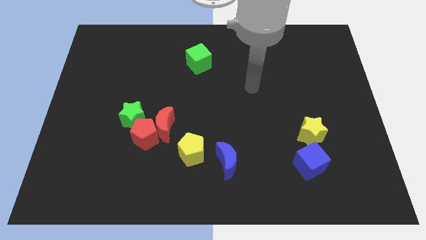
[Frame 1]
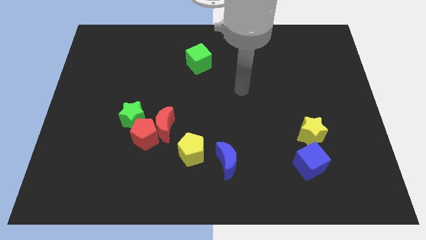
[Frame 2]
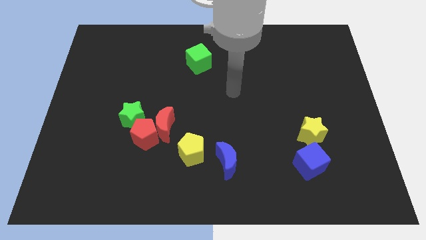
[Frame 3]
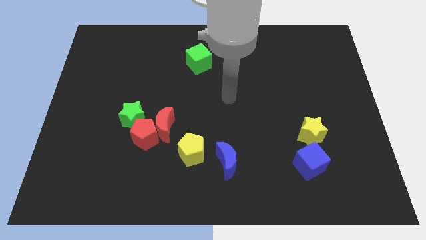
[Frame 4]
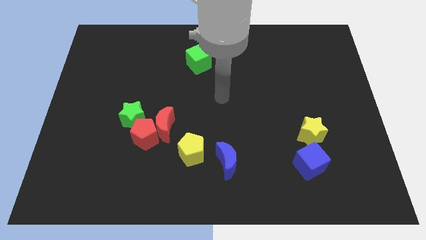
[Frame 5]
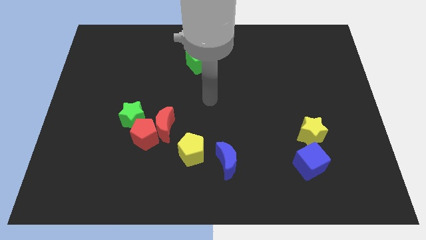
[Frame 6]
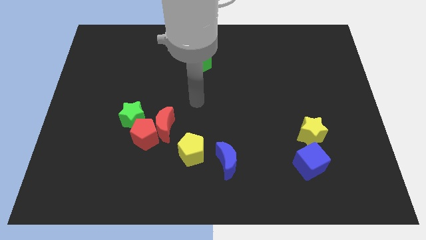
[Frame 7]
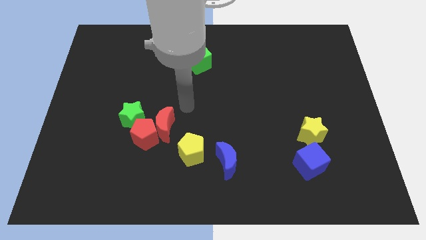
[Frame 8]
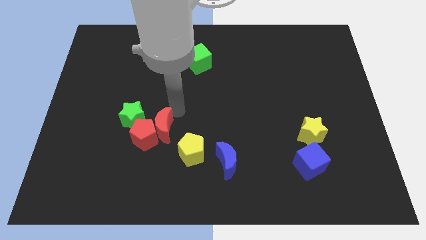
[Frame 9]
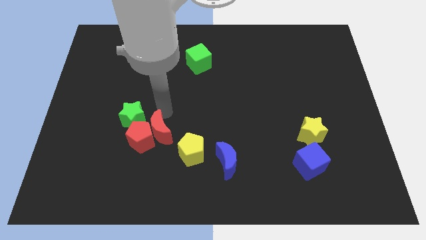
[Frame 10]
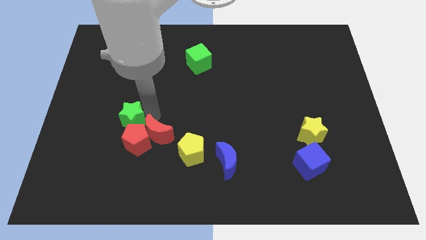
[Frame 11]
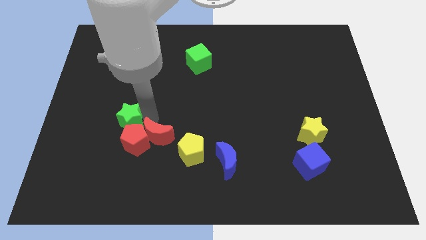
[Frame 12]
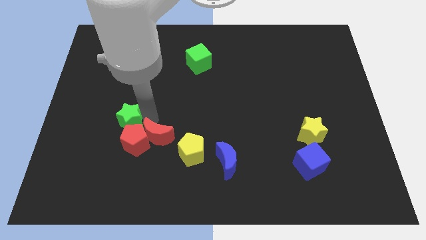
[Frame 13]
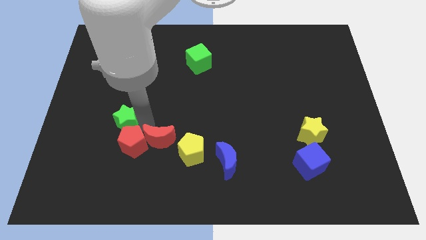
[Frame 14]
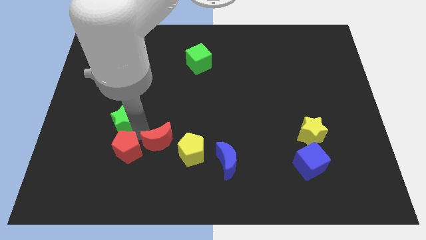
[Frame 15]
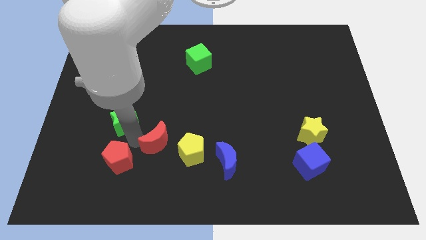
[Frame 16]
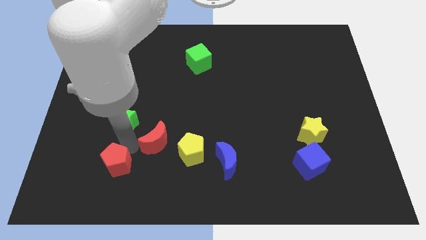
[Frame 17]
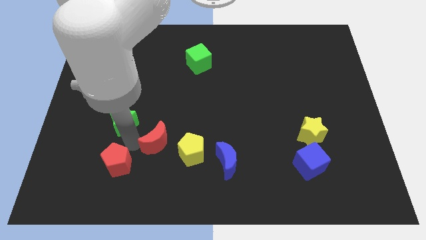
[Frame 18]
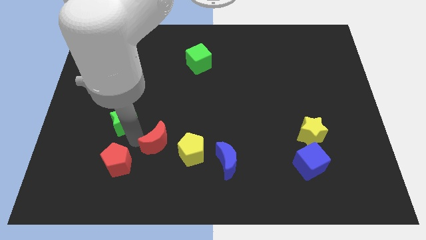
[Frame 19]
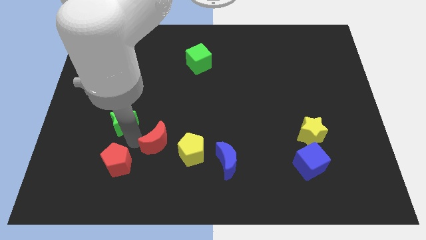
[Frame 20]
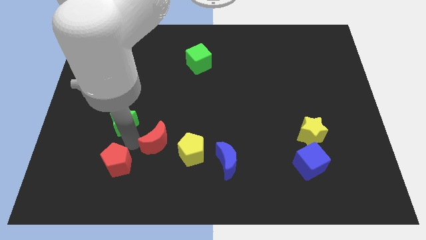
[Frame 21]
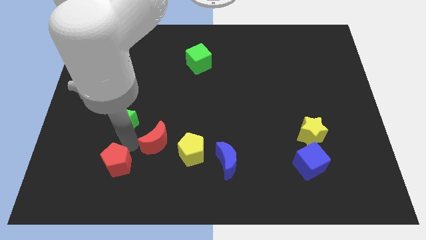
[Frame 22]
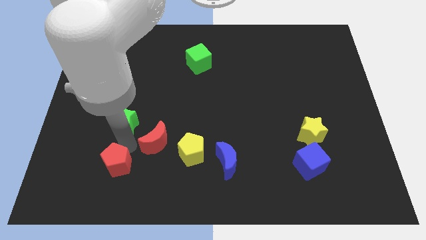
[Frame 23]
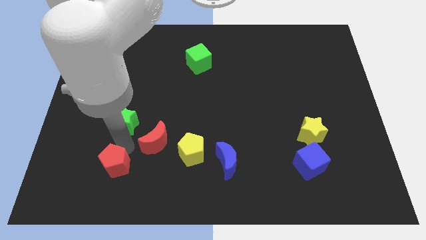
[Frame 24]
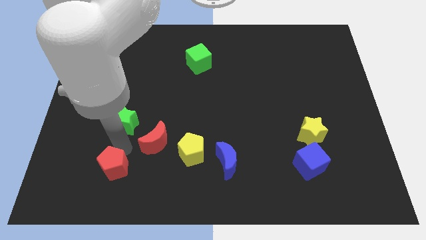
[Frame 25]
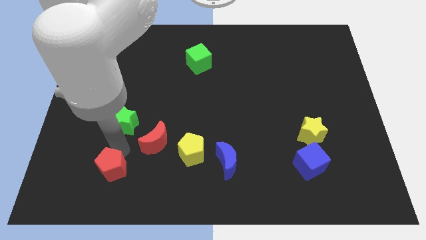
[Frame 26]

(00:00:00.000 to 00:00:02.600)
move the red pentagon away from the red moon and green star

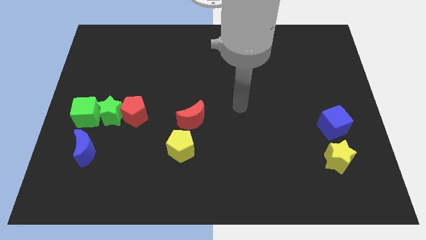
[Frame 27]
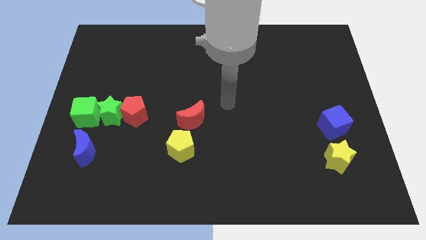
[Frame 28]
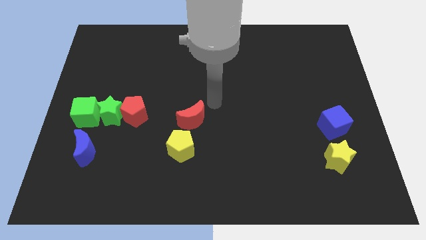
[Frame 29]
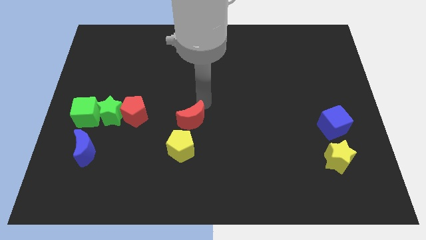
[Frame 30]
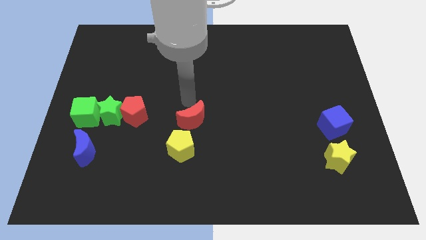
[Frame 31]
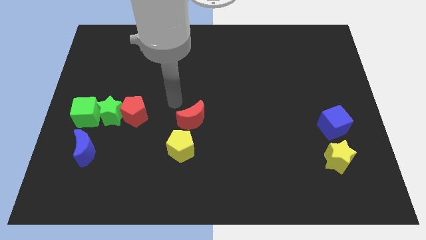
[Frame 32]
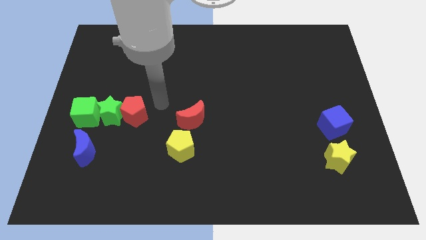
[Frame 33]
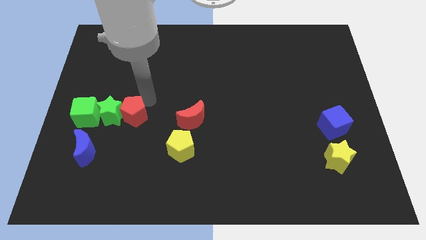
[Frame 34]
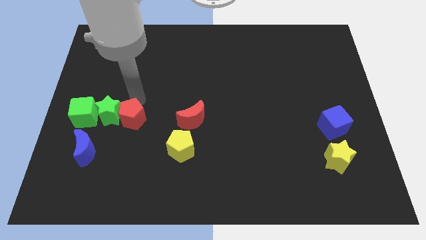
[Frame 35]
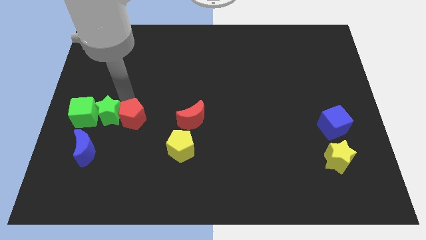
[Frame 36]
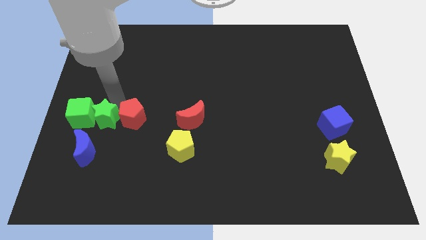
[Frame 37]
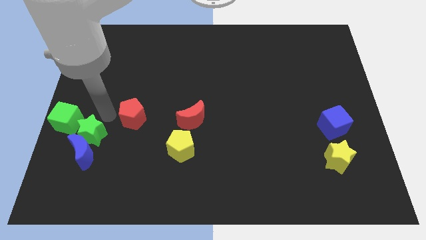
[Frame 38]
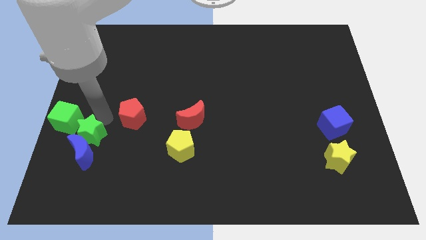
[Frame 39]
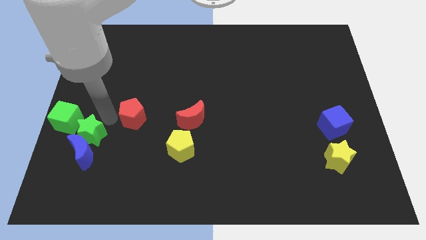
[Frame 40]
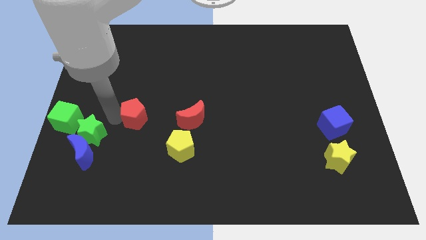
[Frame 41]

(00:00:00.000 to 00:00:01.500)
separate the red pentagon from the green star

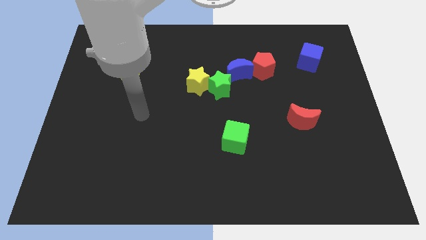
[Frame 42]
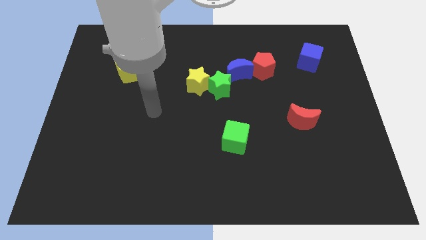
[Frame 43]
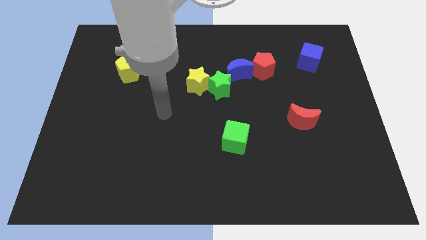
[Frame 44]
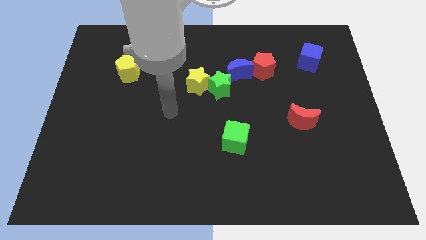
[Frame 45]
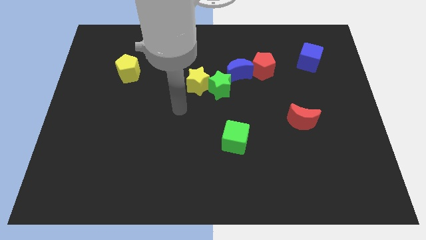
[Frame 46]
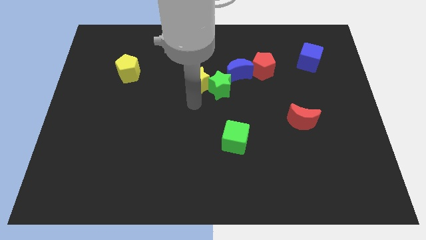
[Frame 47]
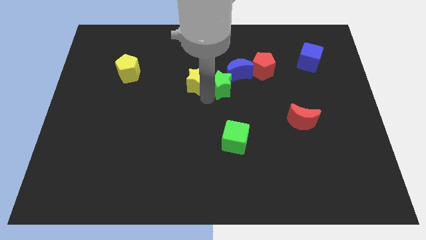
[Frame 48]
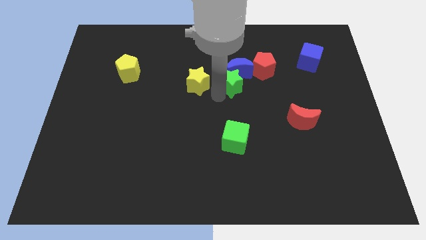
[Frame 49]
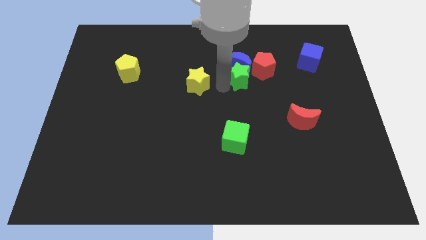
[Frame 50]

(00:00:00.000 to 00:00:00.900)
separate the yellow star from the green star

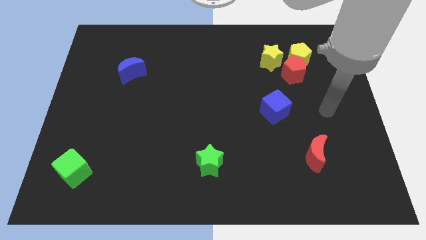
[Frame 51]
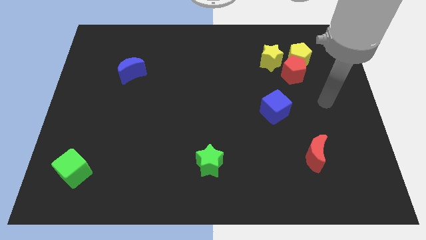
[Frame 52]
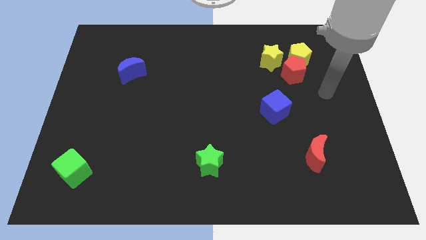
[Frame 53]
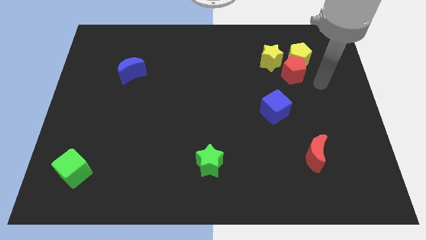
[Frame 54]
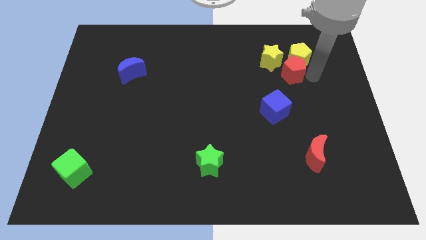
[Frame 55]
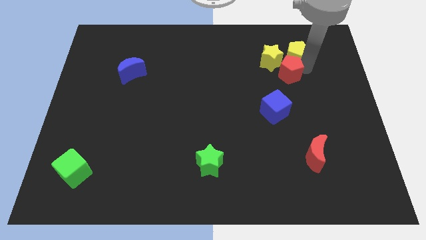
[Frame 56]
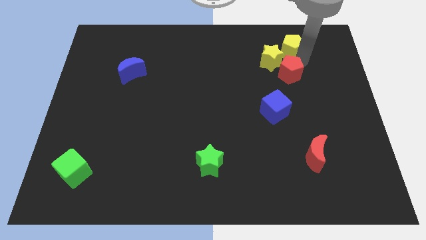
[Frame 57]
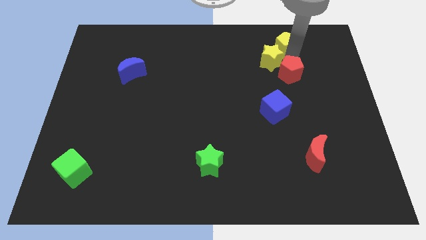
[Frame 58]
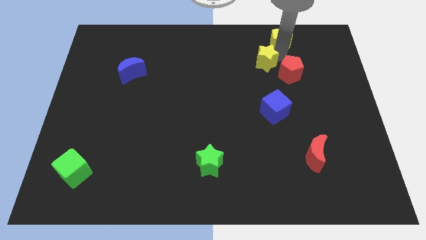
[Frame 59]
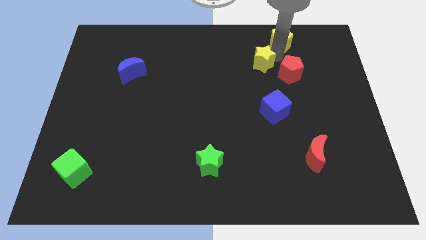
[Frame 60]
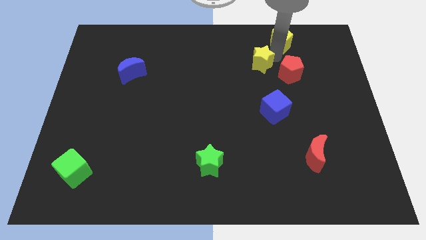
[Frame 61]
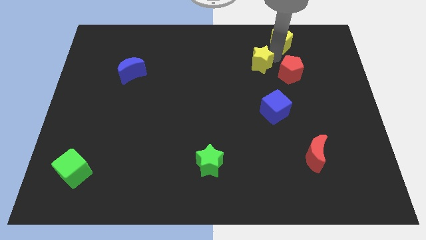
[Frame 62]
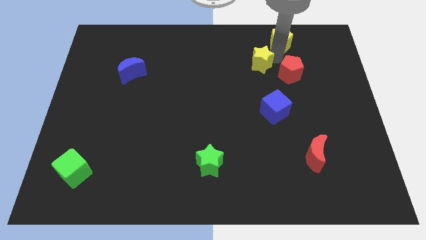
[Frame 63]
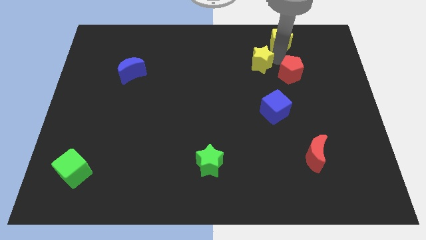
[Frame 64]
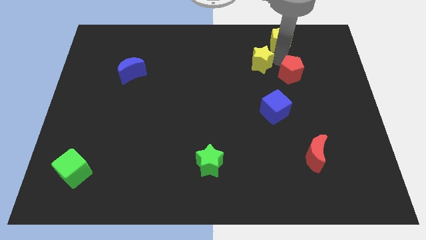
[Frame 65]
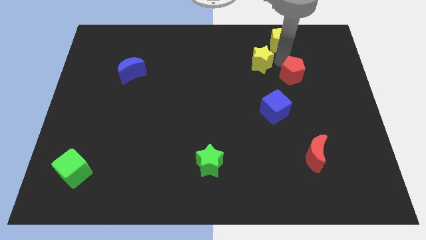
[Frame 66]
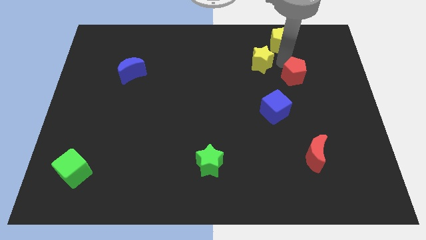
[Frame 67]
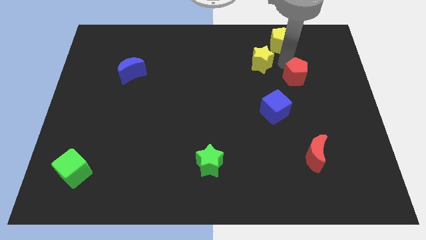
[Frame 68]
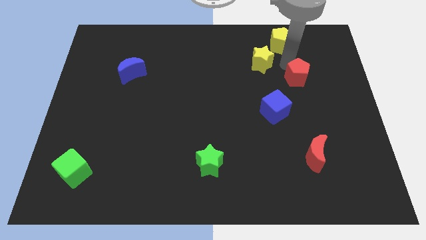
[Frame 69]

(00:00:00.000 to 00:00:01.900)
pull the red pentagon apart from the yellow pentagon and yellow star

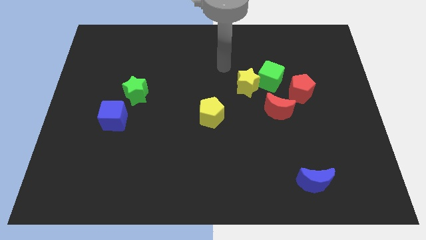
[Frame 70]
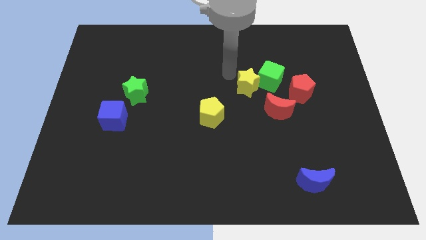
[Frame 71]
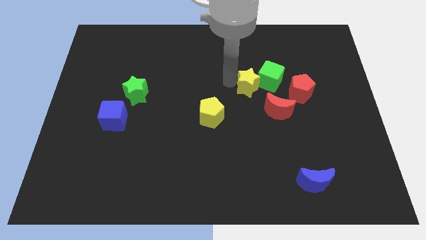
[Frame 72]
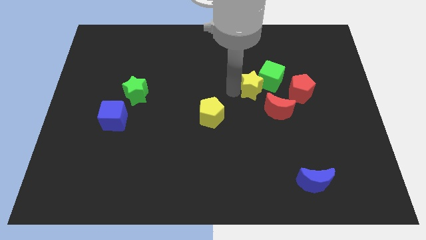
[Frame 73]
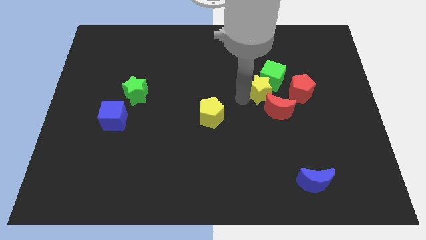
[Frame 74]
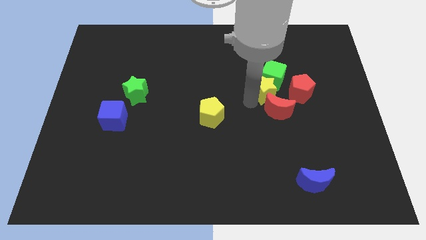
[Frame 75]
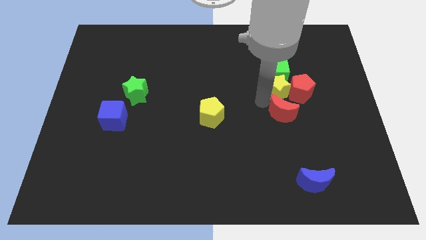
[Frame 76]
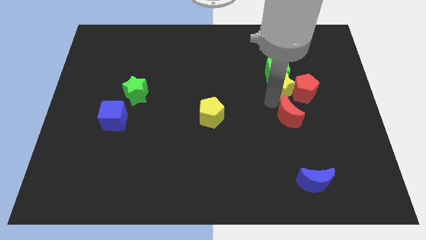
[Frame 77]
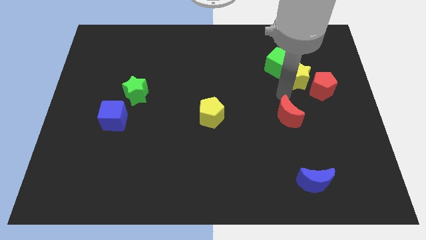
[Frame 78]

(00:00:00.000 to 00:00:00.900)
pull the green cube apart from the group of blocks

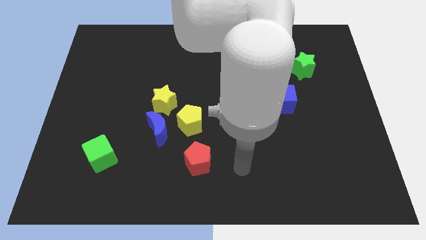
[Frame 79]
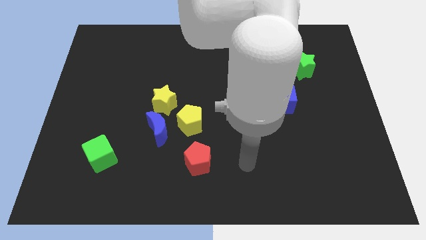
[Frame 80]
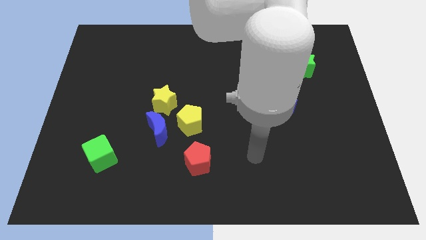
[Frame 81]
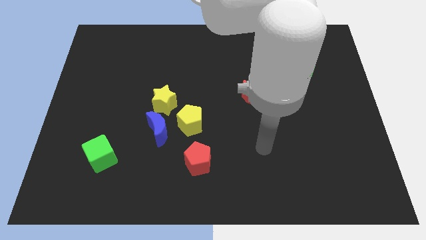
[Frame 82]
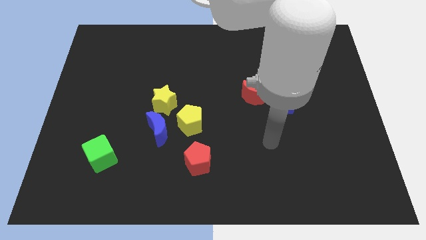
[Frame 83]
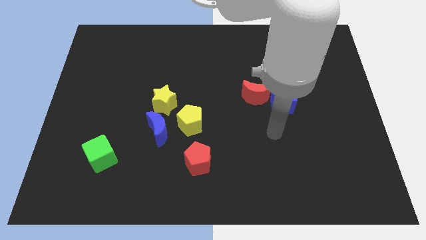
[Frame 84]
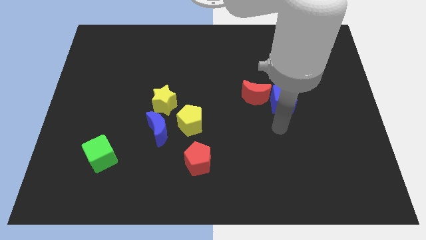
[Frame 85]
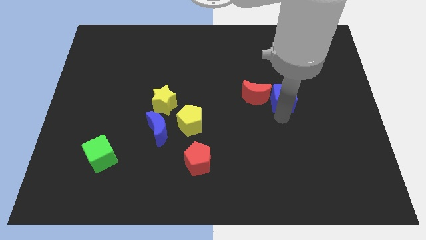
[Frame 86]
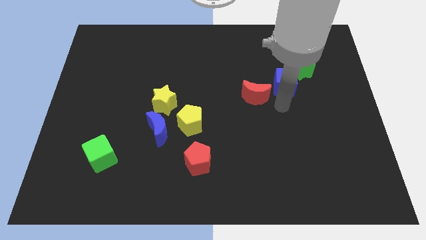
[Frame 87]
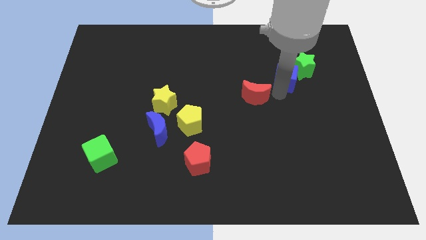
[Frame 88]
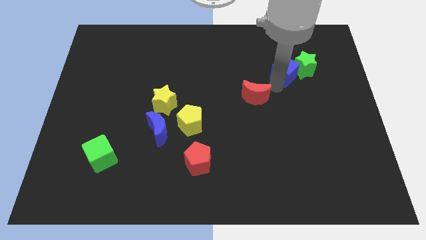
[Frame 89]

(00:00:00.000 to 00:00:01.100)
move the red moon away from the blue cube

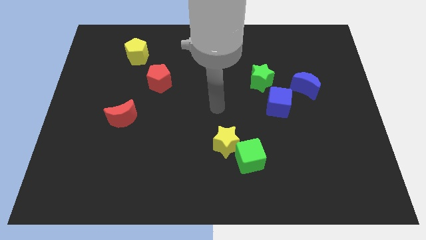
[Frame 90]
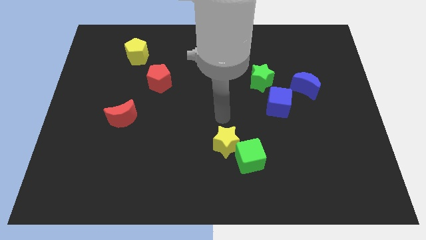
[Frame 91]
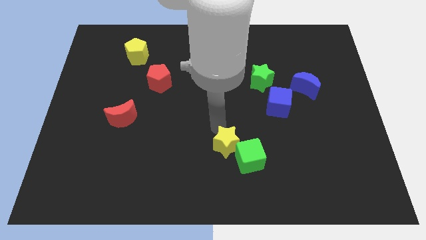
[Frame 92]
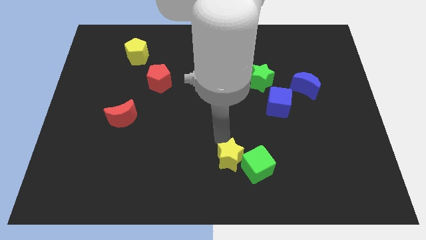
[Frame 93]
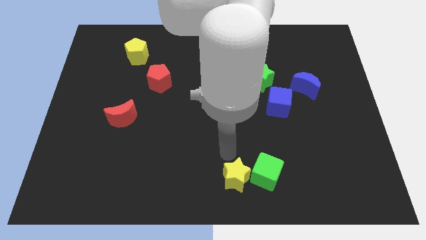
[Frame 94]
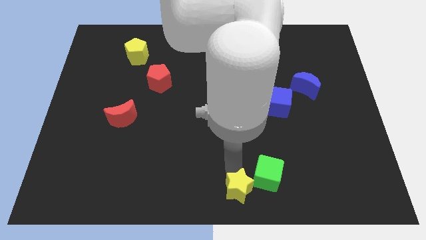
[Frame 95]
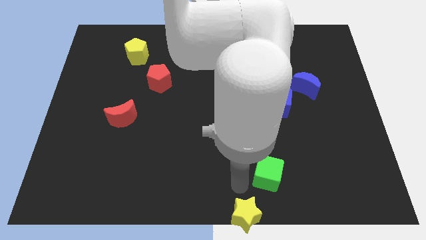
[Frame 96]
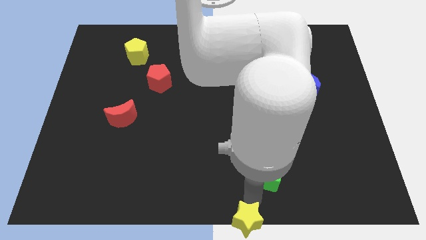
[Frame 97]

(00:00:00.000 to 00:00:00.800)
pull the green cube apart from the yellow star
